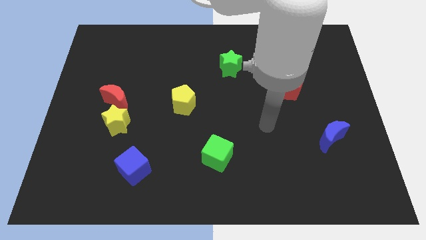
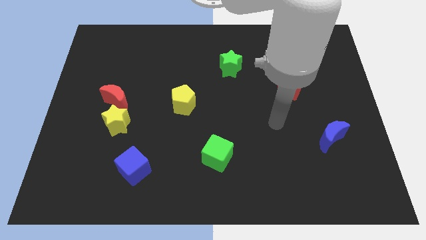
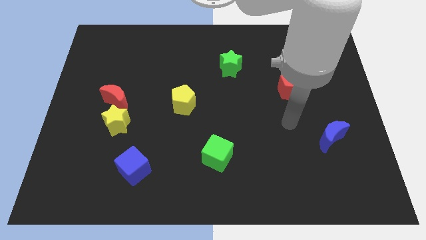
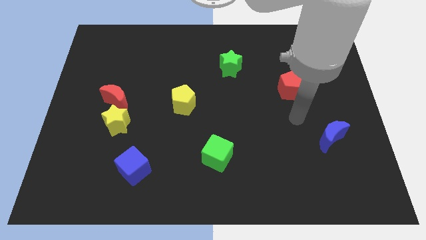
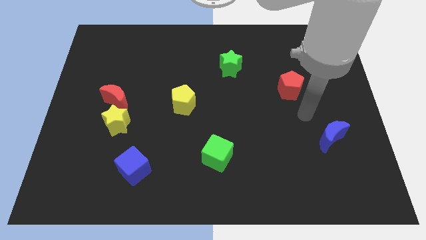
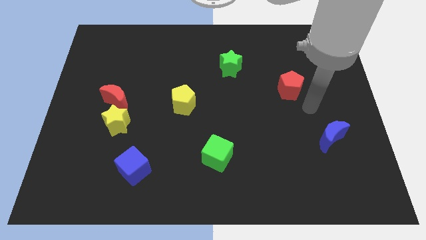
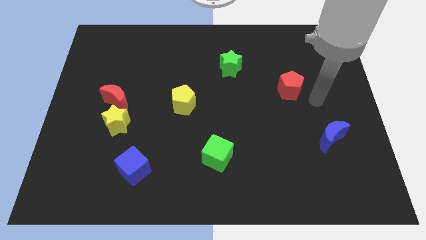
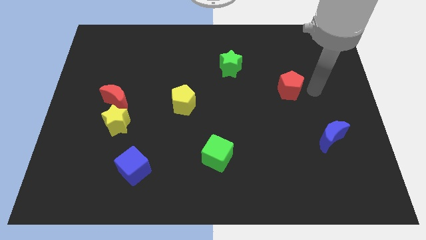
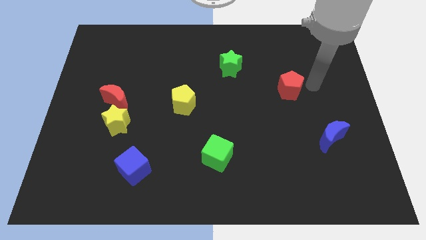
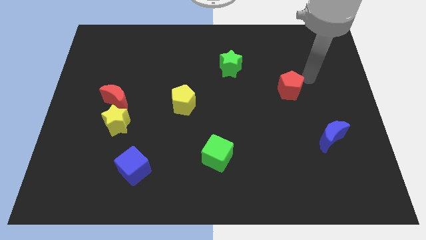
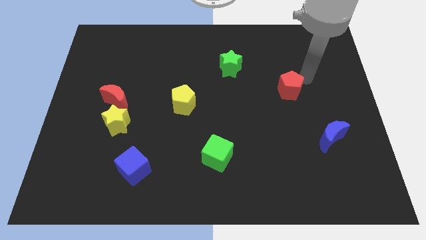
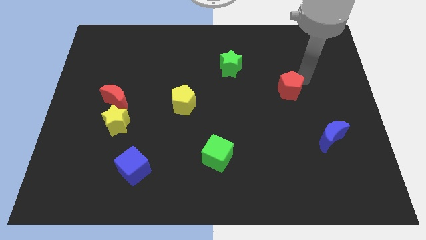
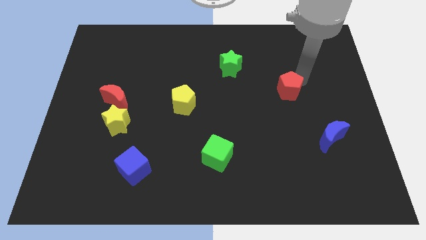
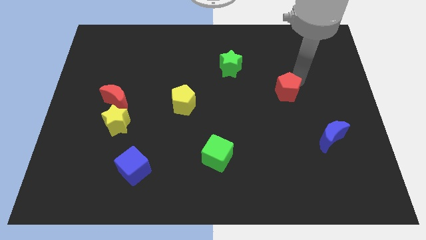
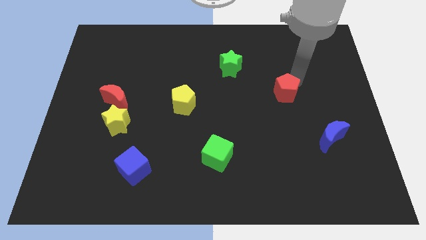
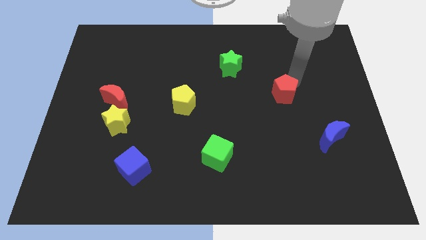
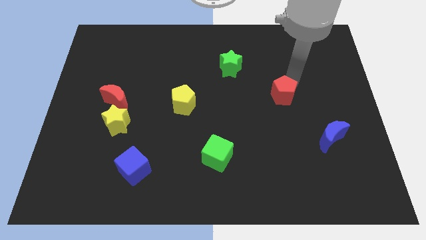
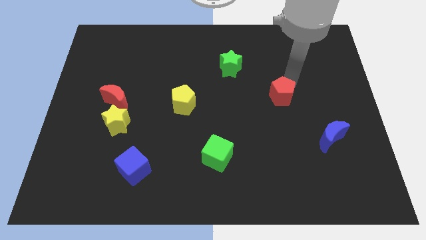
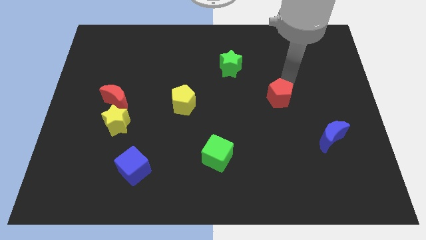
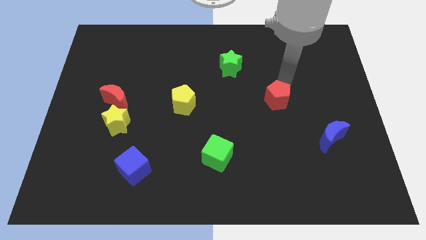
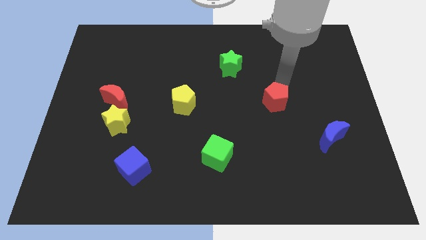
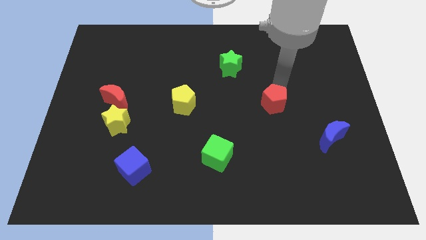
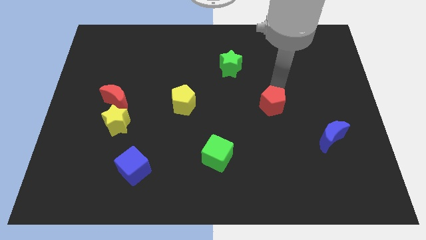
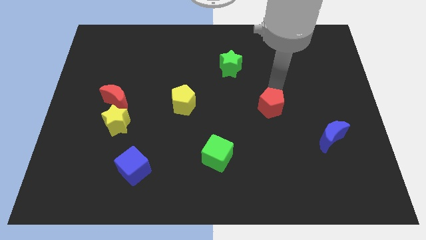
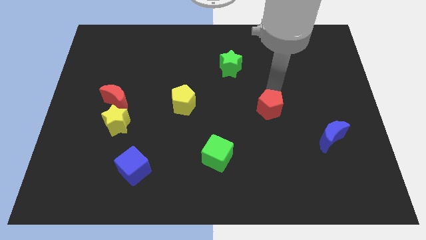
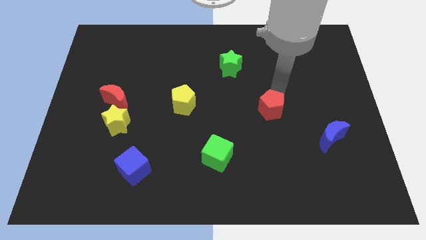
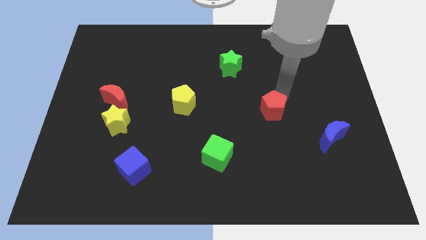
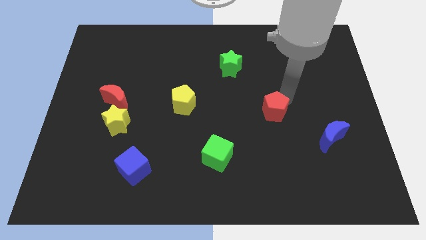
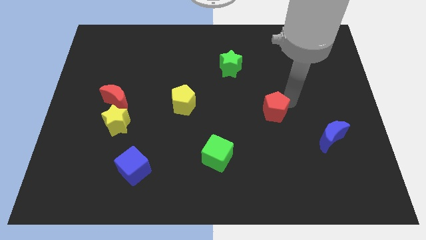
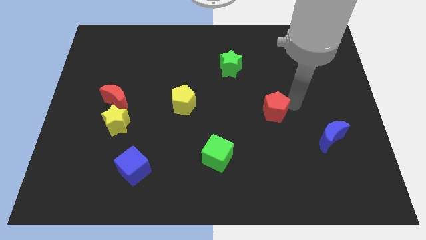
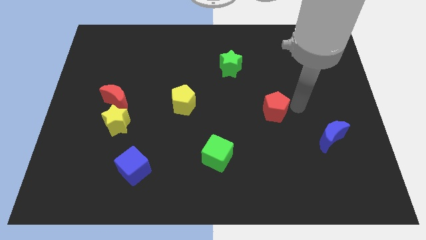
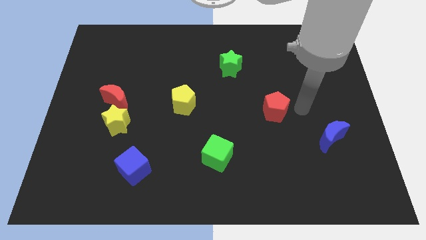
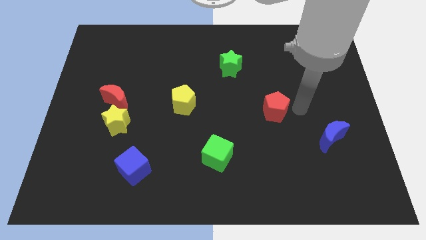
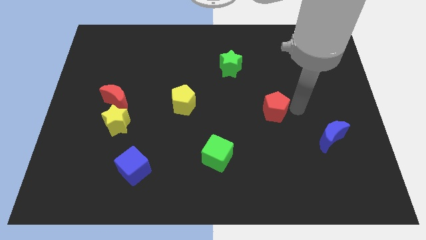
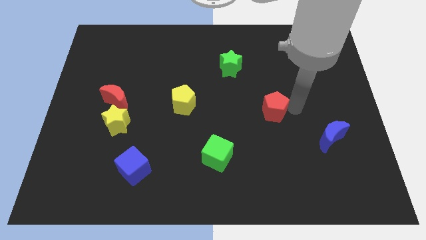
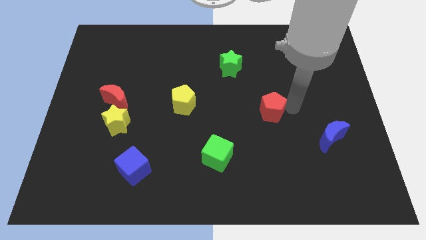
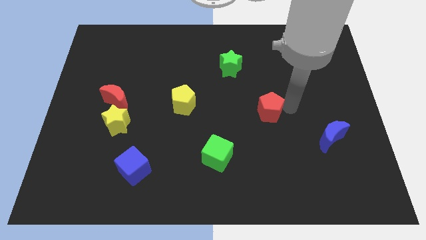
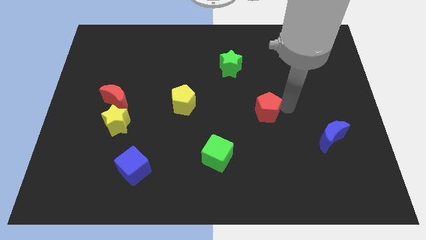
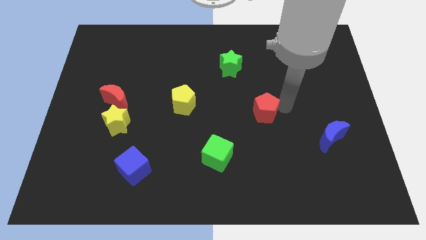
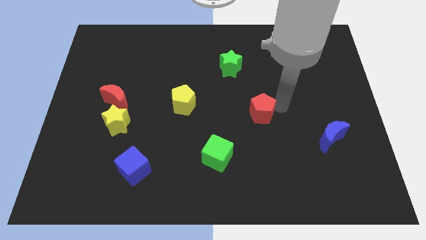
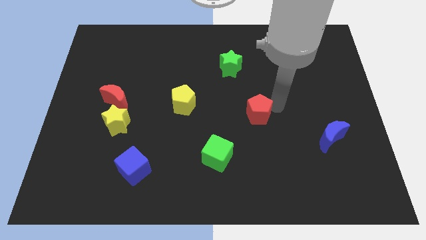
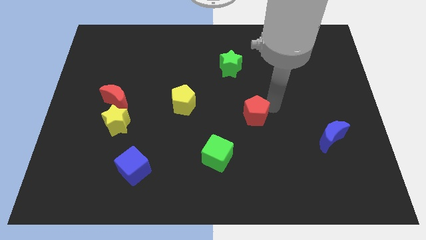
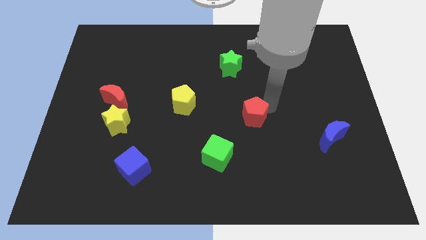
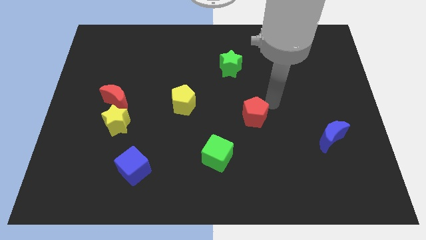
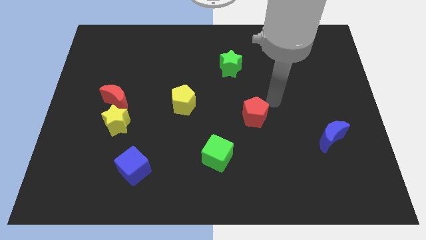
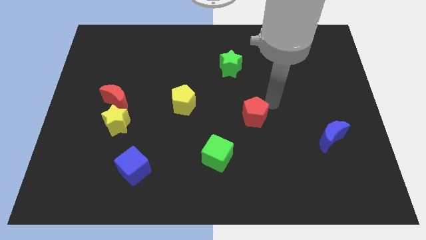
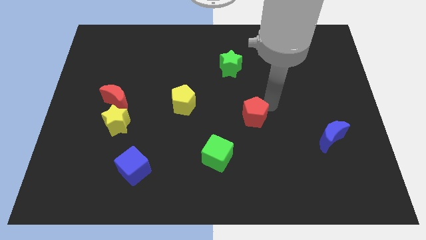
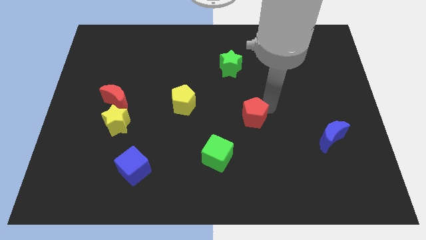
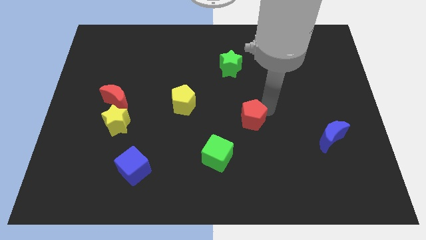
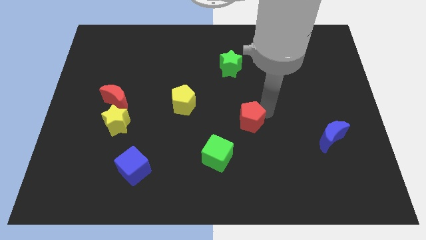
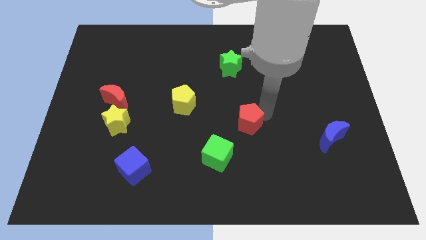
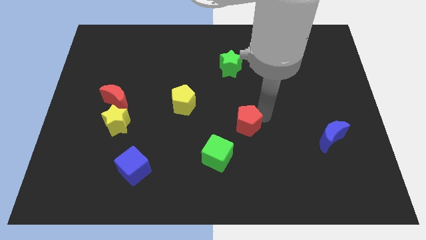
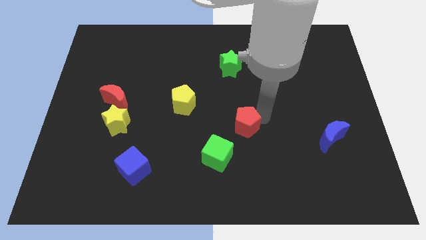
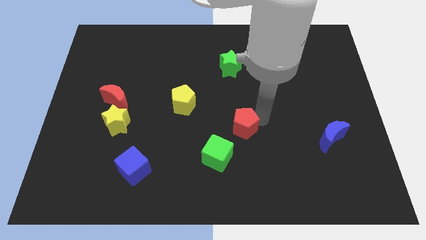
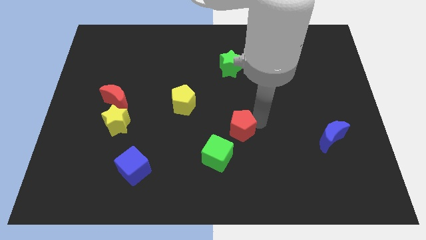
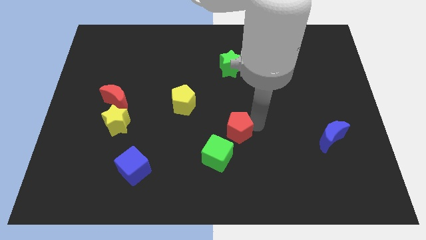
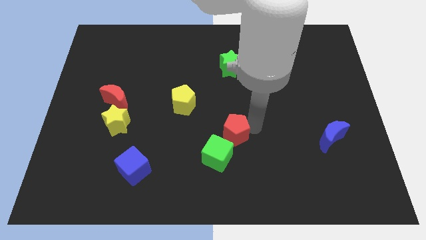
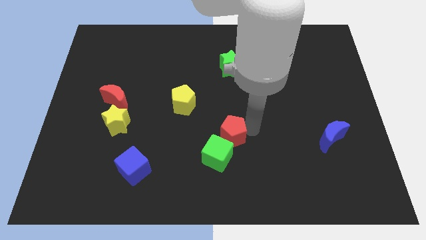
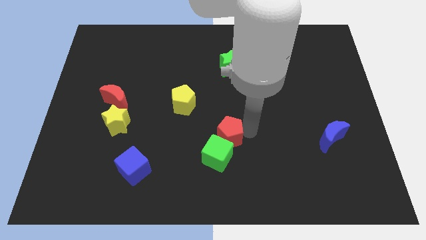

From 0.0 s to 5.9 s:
slide the red pentagon downwards and to the left diagonally

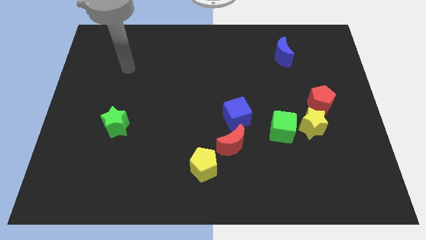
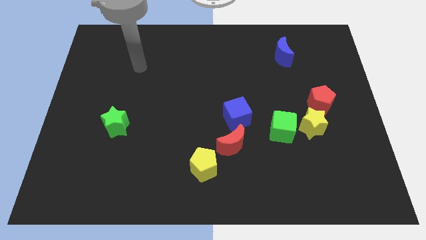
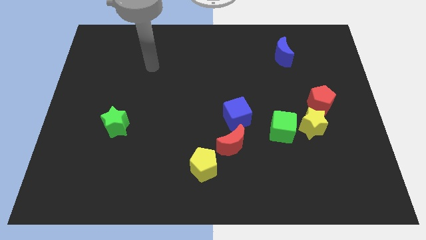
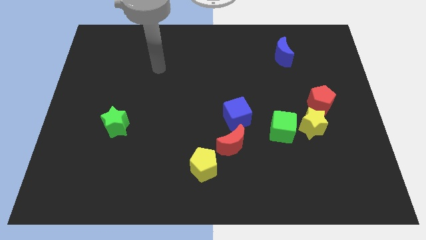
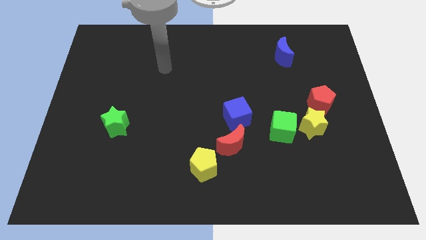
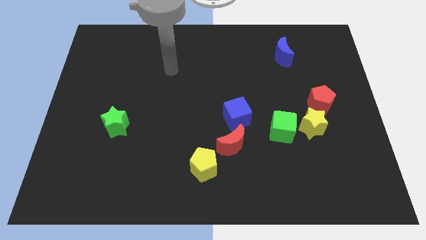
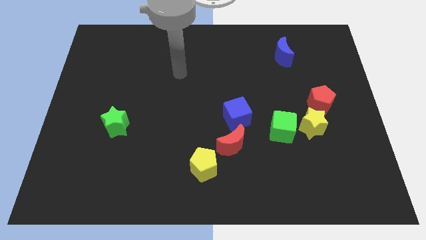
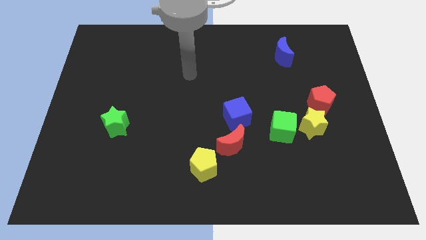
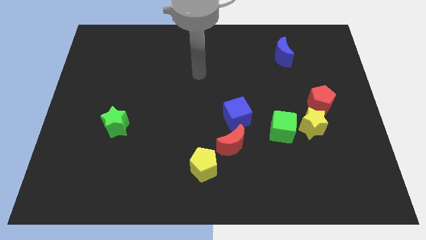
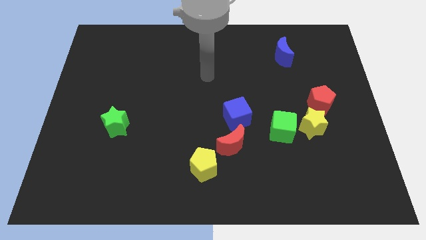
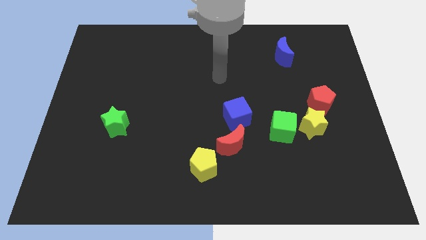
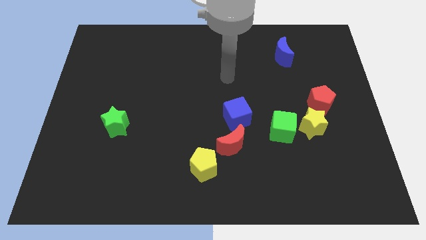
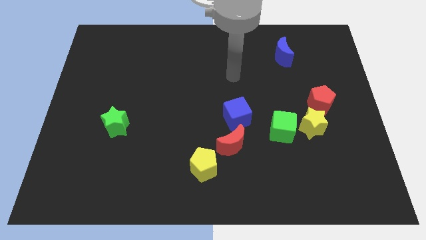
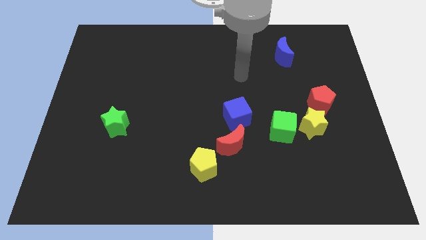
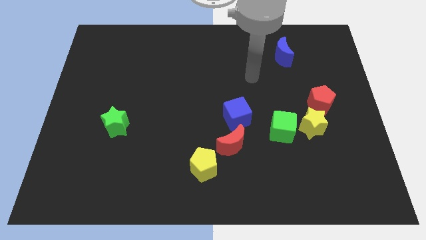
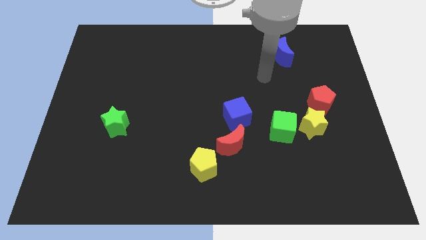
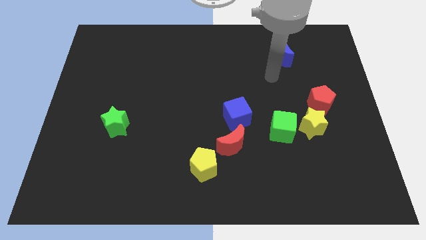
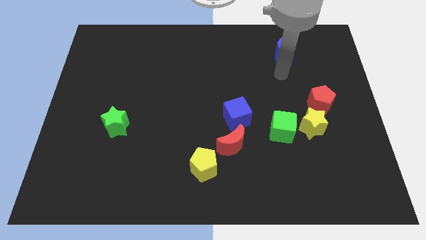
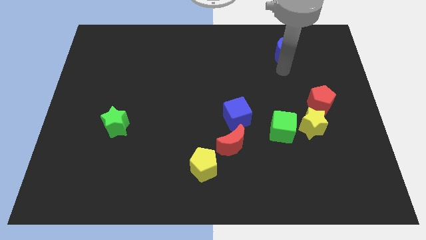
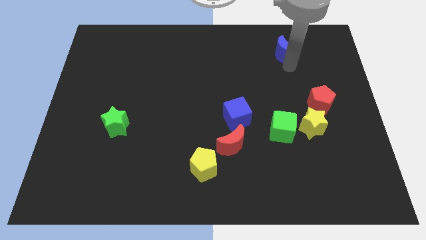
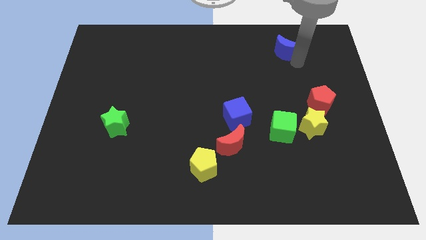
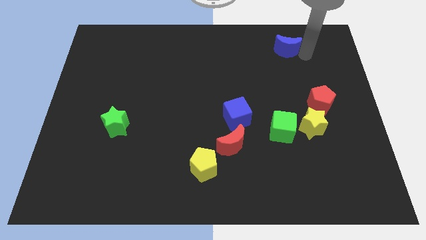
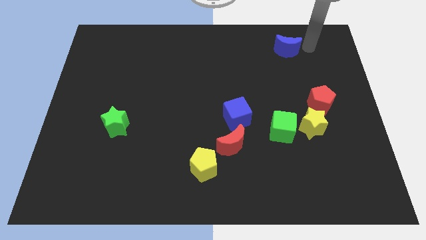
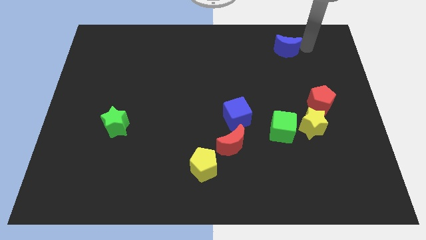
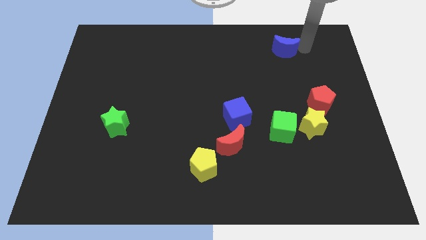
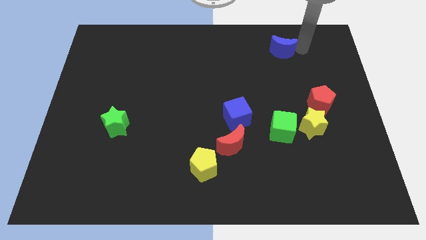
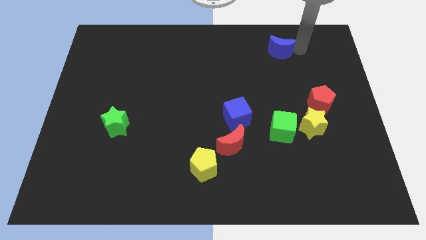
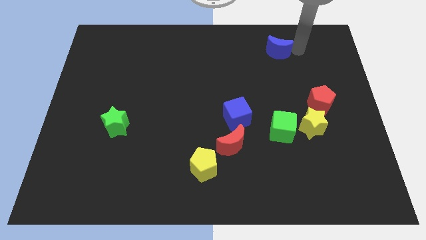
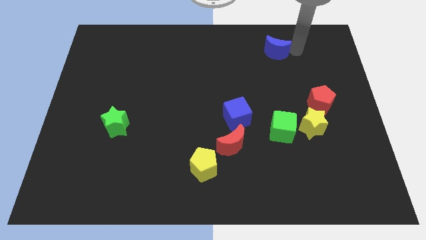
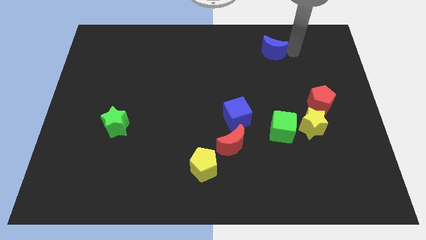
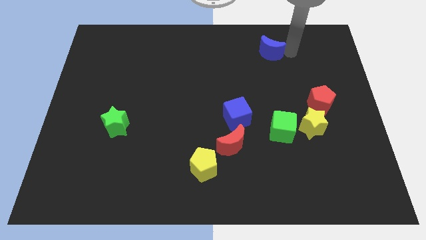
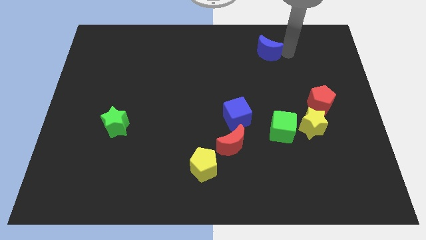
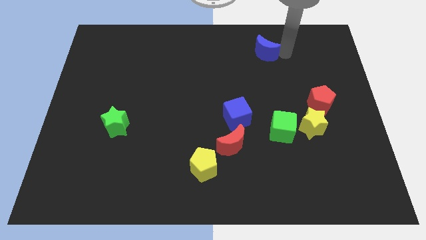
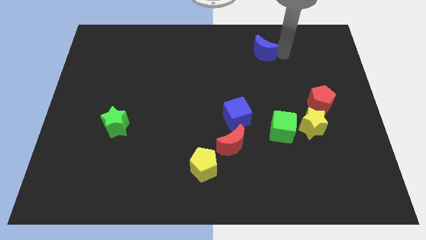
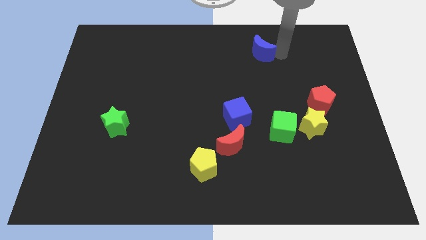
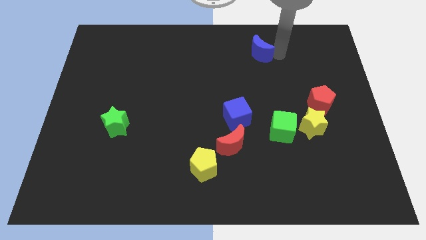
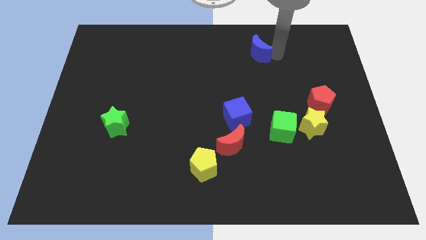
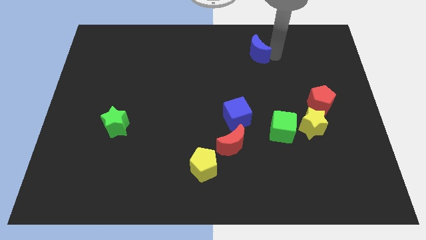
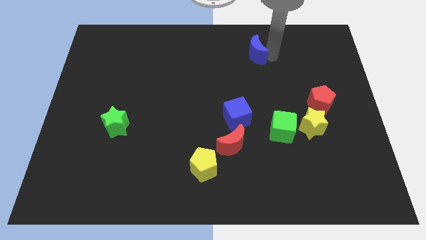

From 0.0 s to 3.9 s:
slightly push the blue moon left
